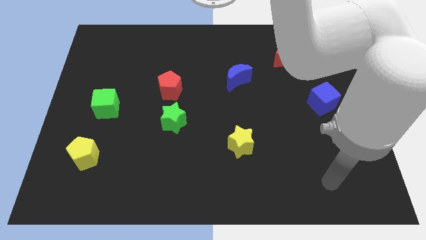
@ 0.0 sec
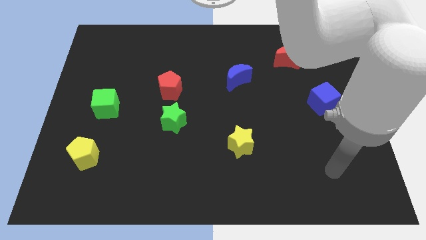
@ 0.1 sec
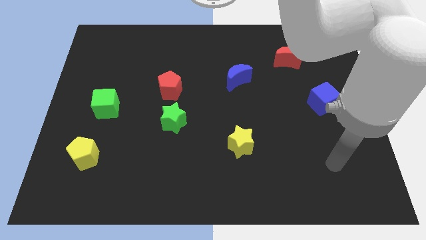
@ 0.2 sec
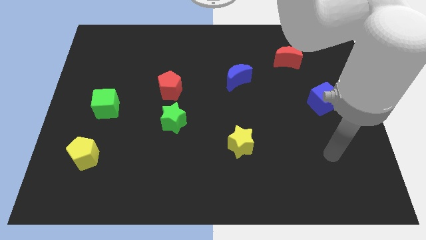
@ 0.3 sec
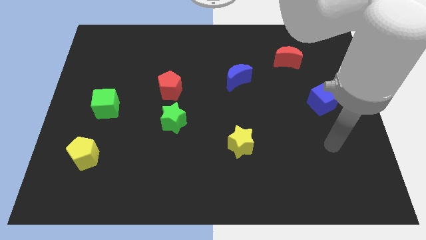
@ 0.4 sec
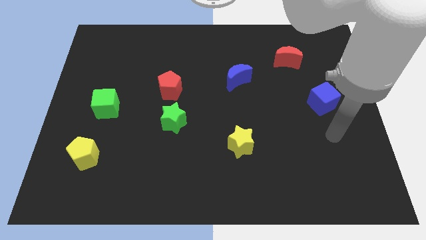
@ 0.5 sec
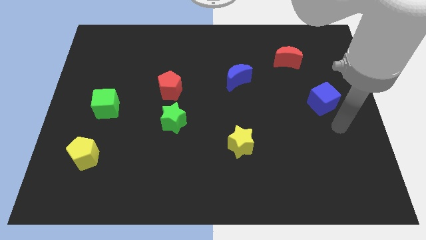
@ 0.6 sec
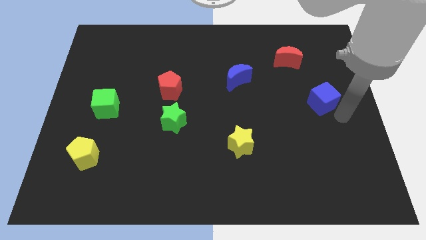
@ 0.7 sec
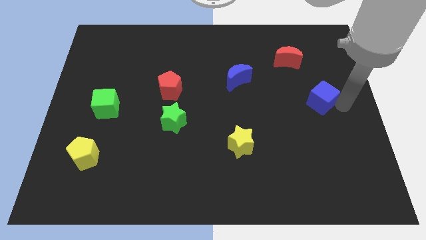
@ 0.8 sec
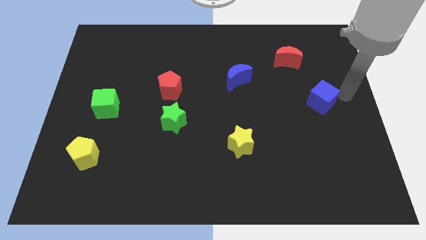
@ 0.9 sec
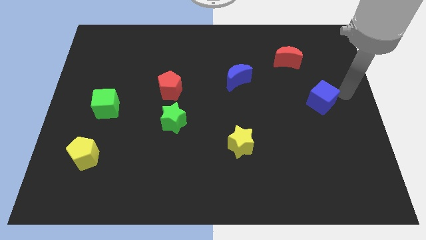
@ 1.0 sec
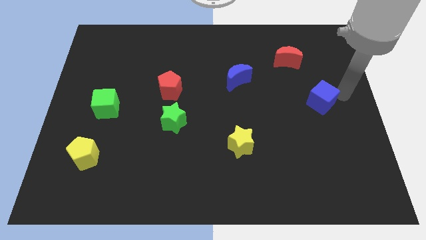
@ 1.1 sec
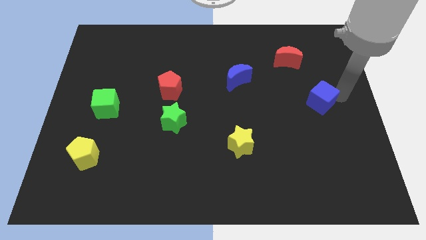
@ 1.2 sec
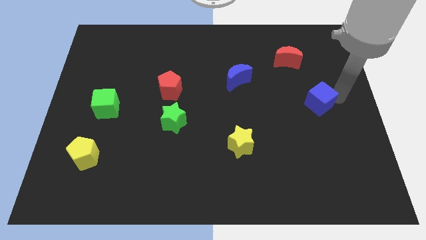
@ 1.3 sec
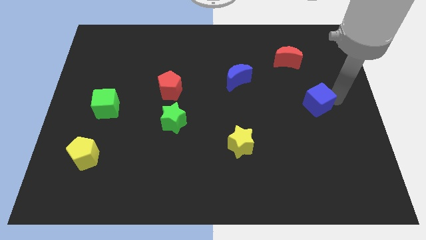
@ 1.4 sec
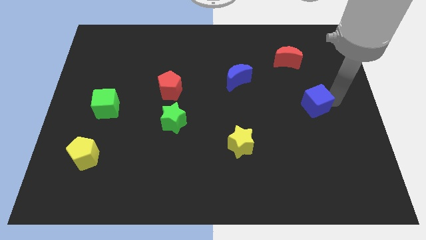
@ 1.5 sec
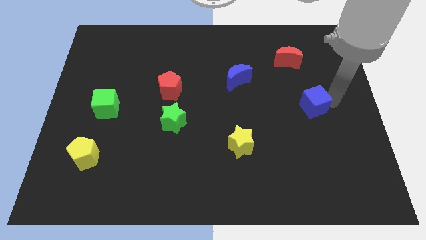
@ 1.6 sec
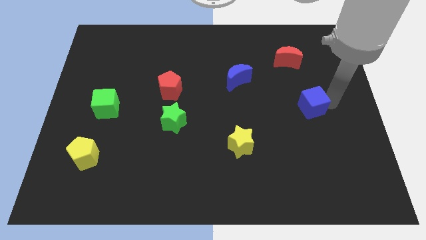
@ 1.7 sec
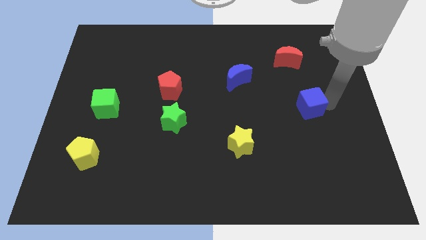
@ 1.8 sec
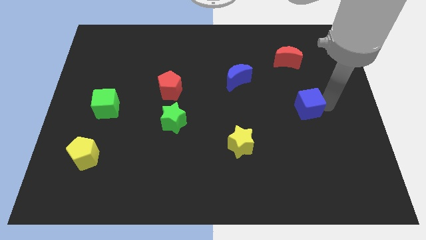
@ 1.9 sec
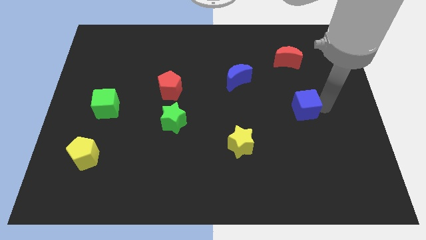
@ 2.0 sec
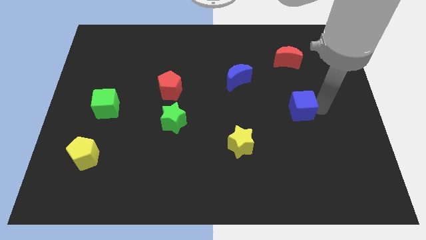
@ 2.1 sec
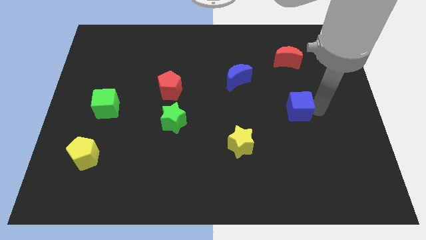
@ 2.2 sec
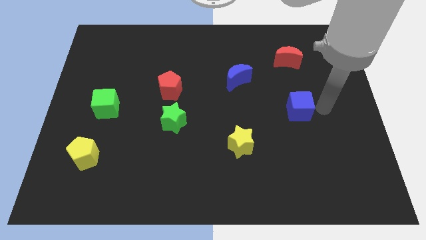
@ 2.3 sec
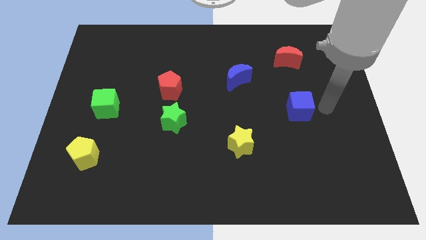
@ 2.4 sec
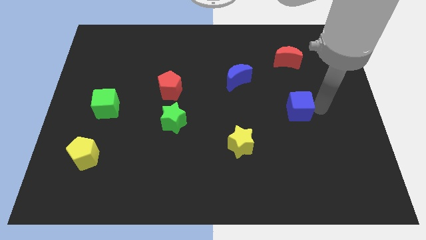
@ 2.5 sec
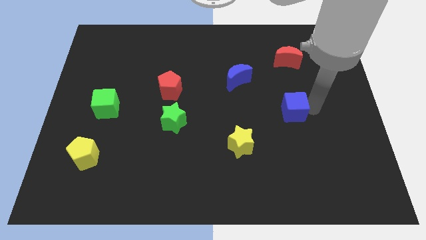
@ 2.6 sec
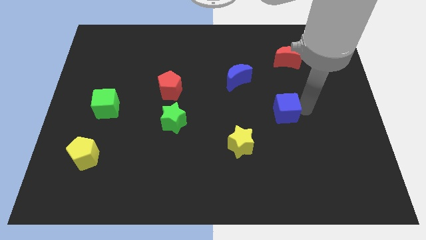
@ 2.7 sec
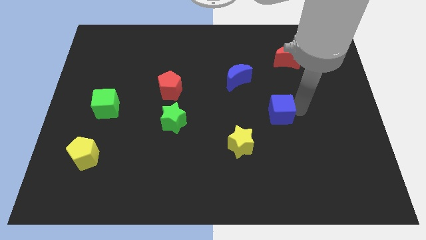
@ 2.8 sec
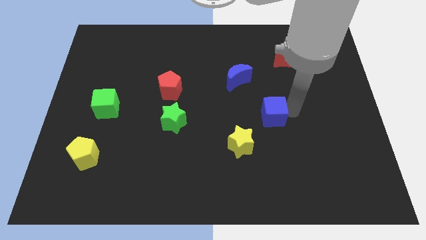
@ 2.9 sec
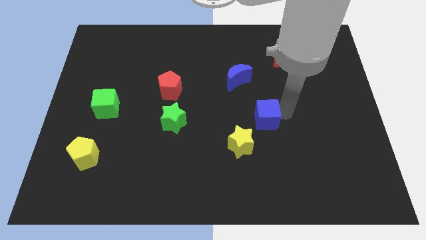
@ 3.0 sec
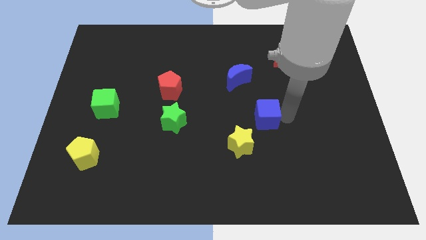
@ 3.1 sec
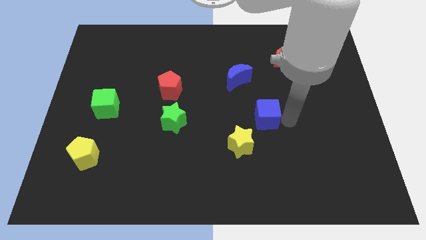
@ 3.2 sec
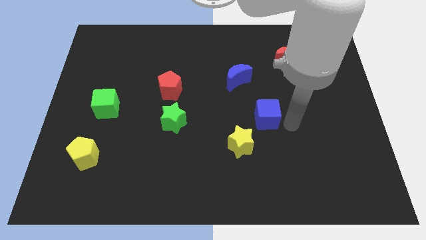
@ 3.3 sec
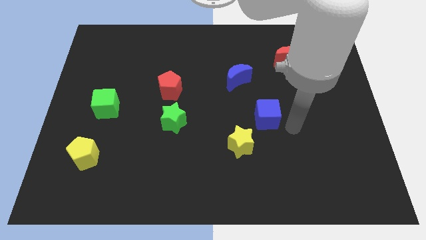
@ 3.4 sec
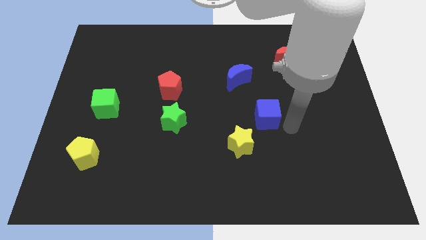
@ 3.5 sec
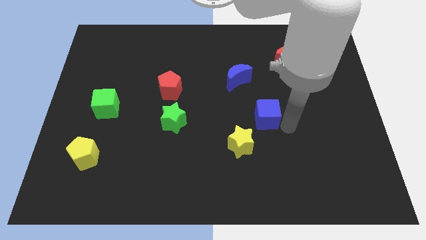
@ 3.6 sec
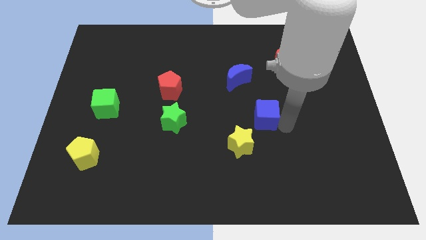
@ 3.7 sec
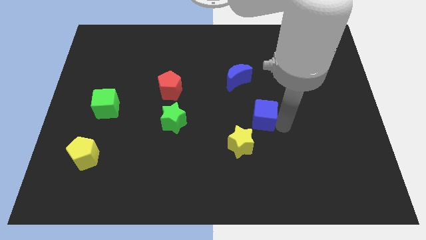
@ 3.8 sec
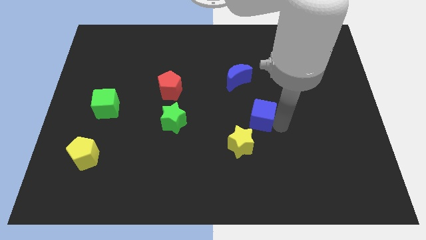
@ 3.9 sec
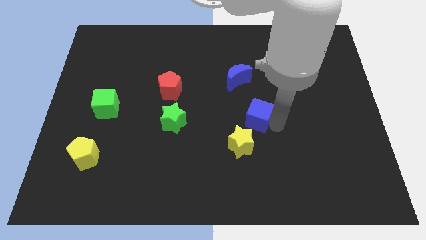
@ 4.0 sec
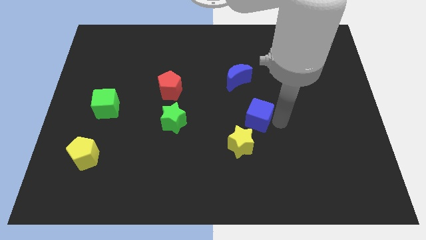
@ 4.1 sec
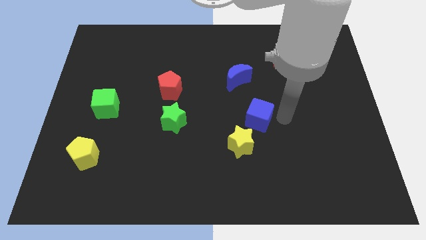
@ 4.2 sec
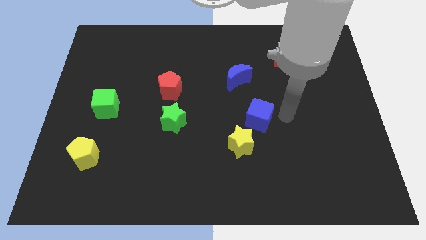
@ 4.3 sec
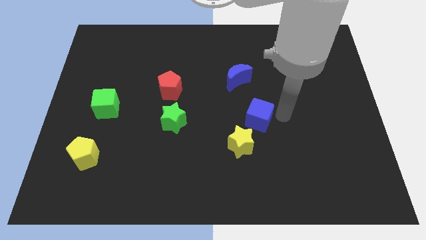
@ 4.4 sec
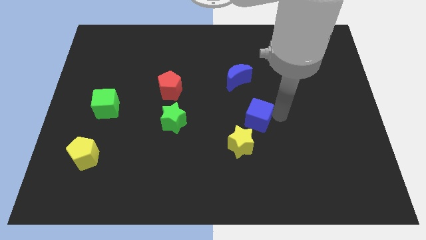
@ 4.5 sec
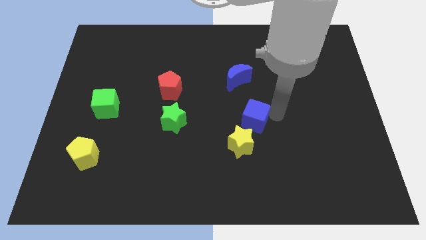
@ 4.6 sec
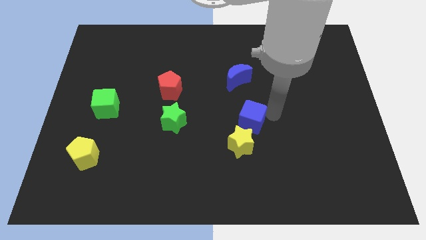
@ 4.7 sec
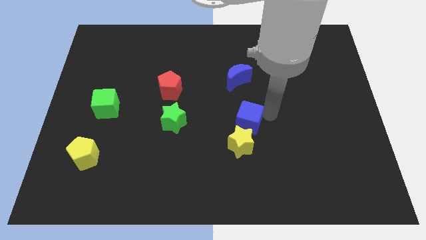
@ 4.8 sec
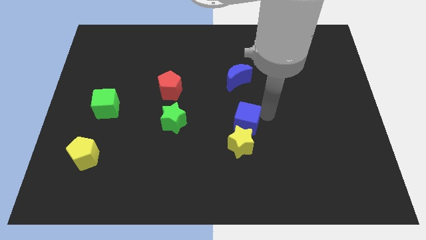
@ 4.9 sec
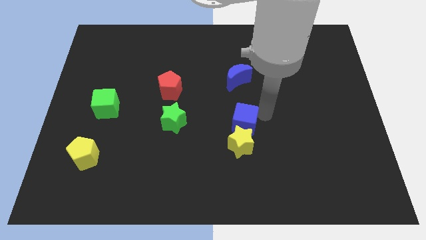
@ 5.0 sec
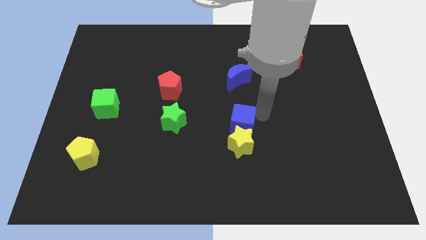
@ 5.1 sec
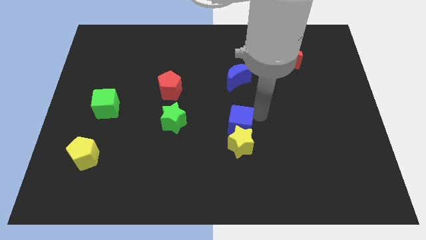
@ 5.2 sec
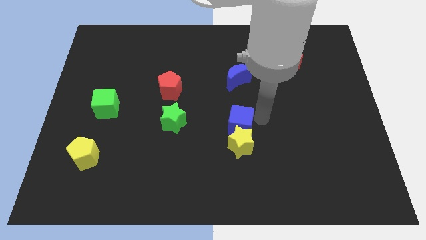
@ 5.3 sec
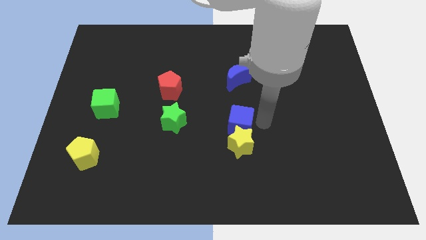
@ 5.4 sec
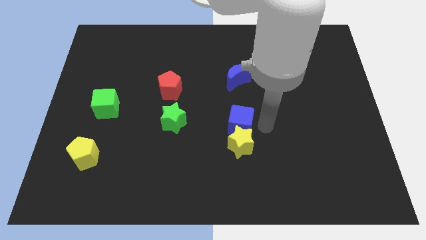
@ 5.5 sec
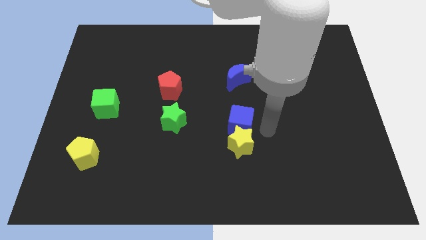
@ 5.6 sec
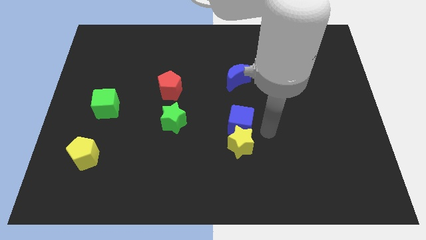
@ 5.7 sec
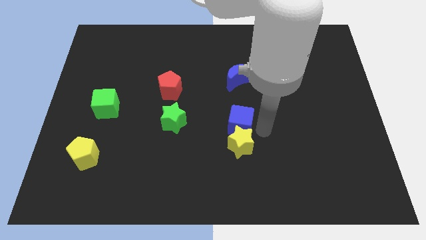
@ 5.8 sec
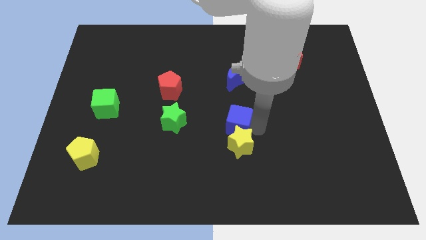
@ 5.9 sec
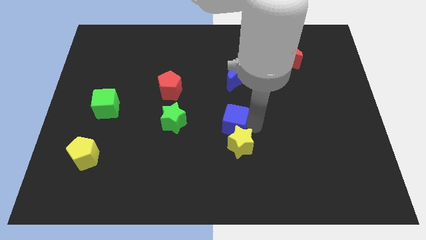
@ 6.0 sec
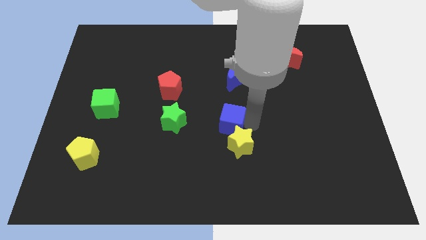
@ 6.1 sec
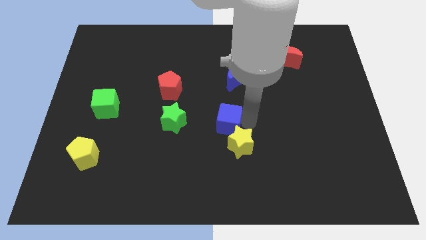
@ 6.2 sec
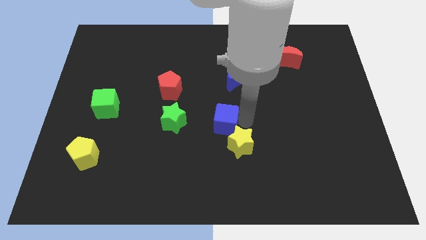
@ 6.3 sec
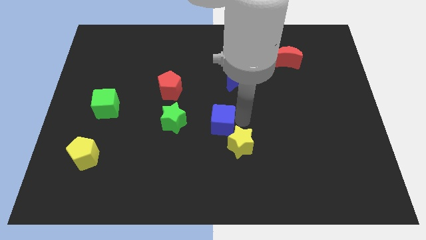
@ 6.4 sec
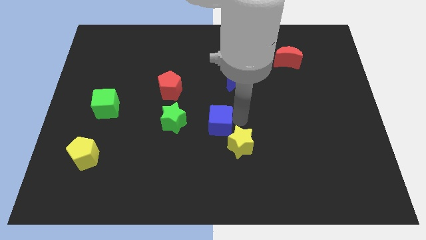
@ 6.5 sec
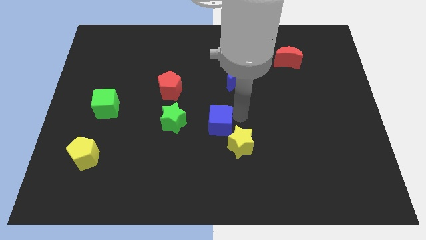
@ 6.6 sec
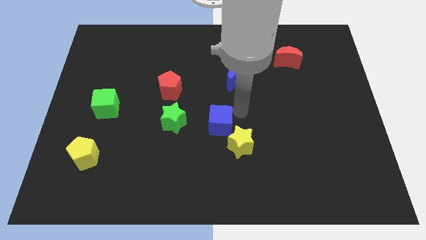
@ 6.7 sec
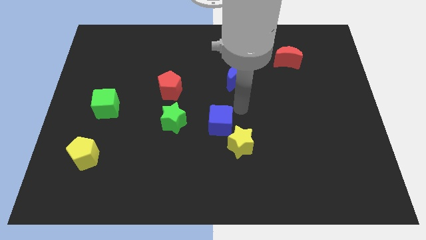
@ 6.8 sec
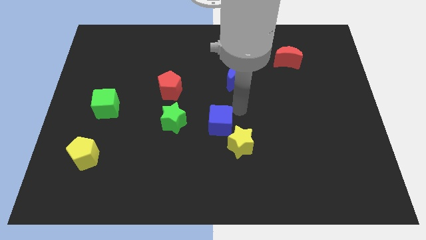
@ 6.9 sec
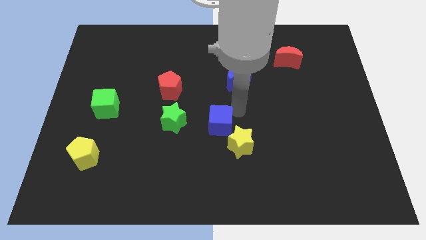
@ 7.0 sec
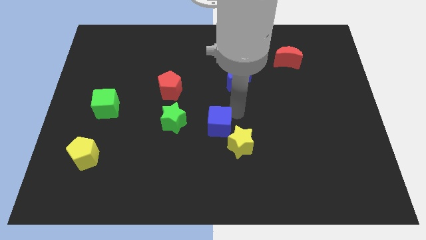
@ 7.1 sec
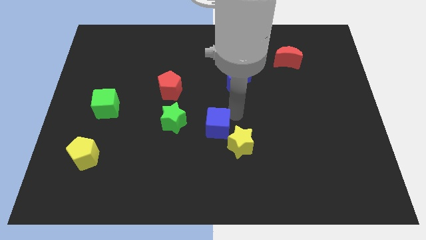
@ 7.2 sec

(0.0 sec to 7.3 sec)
slide the blue cube to the left side of the yellow star
